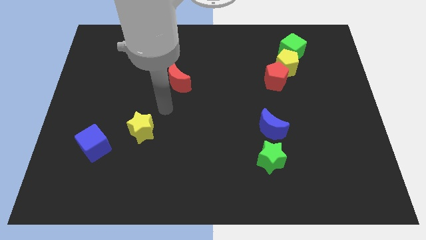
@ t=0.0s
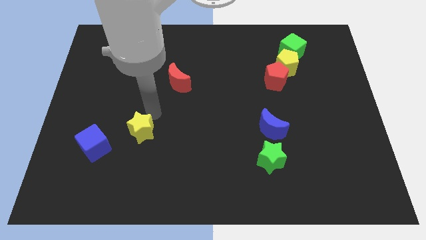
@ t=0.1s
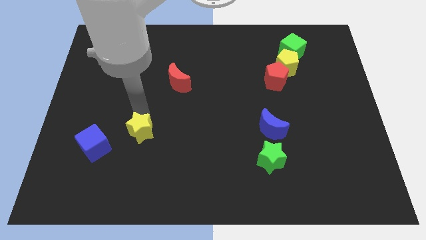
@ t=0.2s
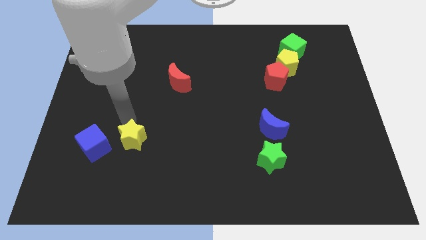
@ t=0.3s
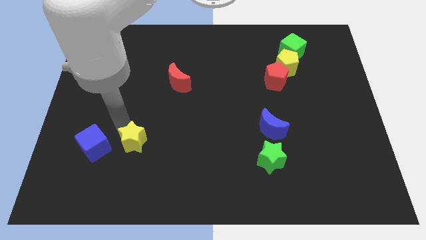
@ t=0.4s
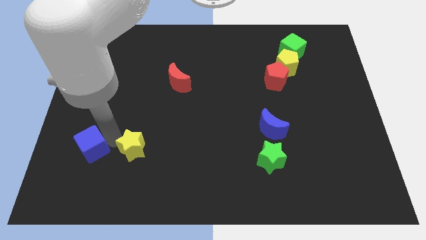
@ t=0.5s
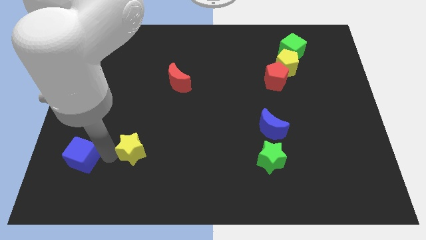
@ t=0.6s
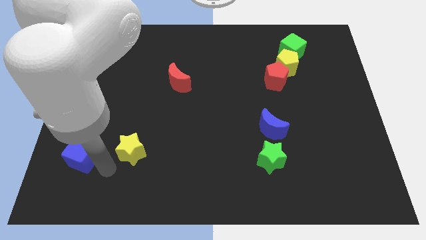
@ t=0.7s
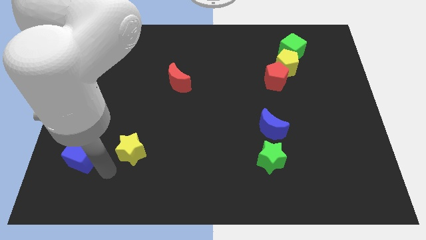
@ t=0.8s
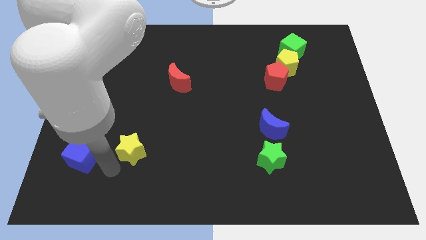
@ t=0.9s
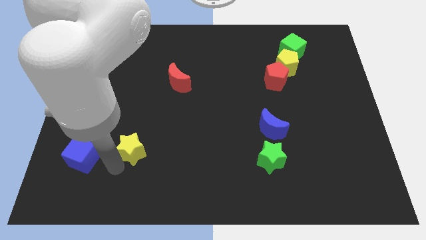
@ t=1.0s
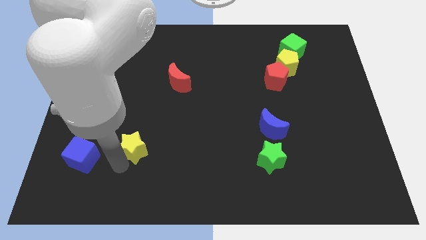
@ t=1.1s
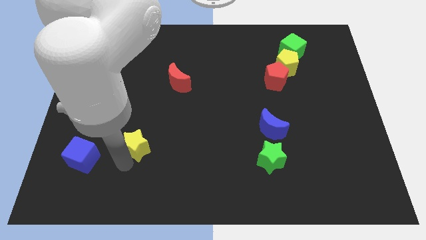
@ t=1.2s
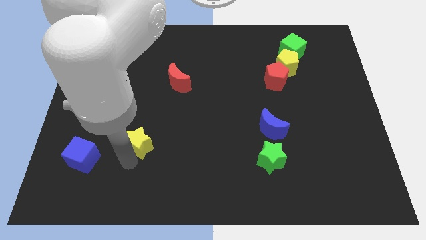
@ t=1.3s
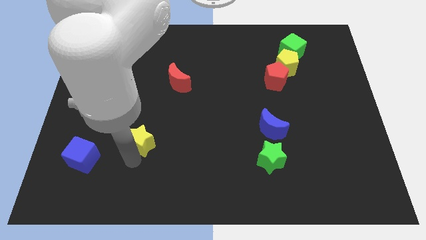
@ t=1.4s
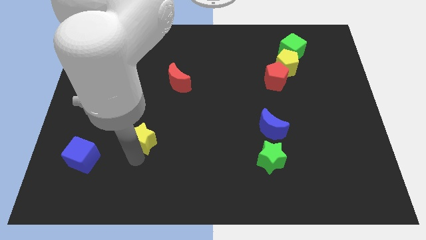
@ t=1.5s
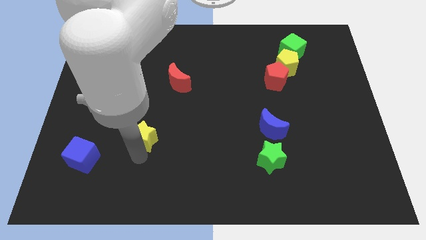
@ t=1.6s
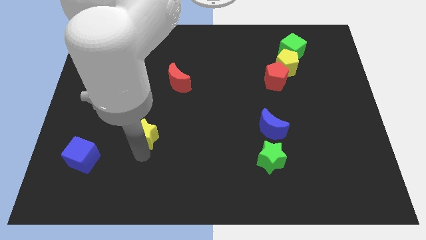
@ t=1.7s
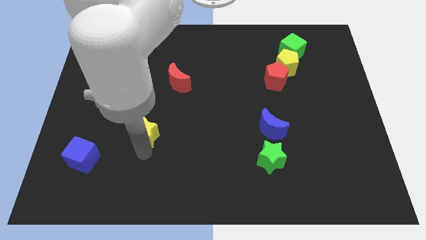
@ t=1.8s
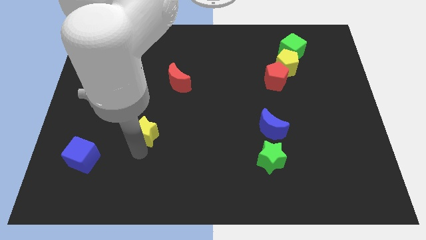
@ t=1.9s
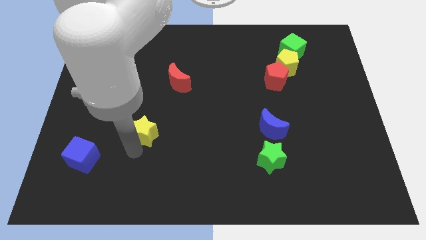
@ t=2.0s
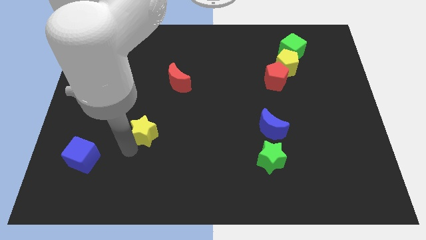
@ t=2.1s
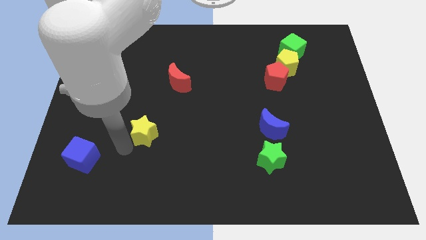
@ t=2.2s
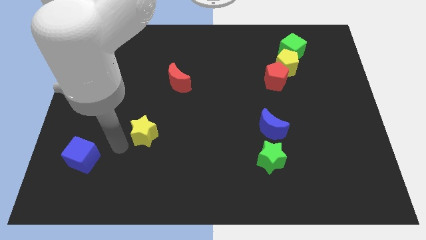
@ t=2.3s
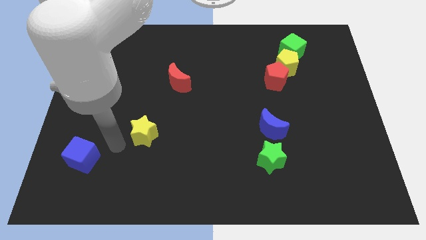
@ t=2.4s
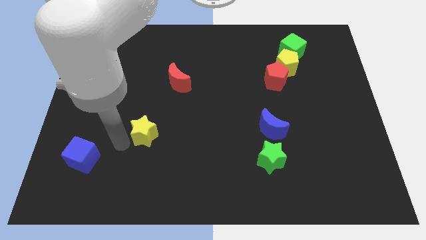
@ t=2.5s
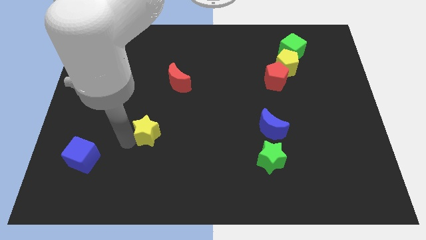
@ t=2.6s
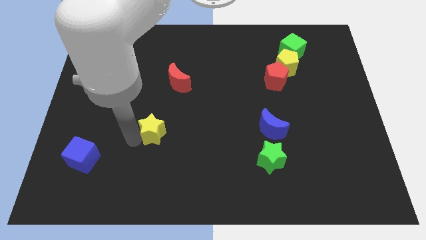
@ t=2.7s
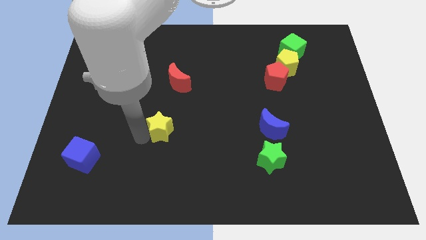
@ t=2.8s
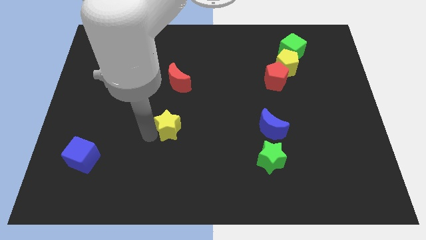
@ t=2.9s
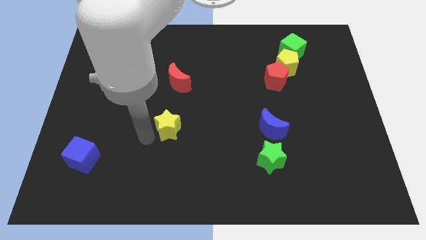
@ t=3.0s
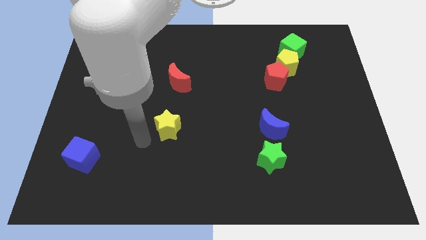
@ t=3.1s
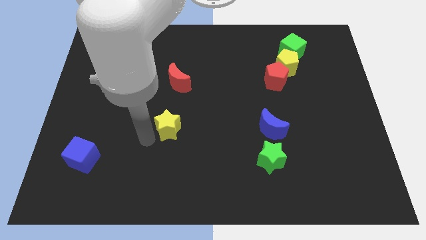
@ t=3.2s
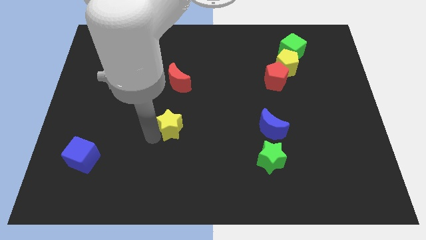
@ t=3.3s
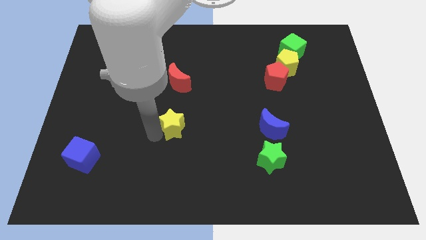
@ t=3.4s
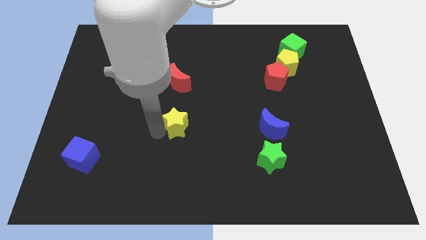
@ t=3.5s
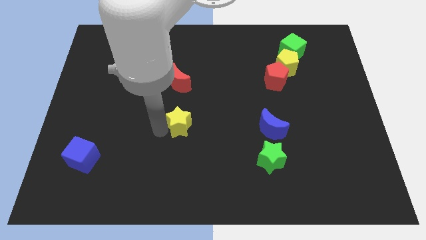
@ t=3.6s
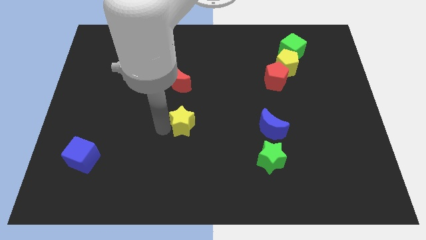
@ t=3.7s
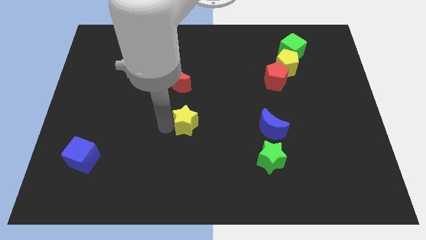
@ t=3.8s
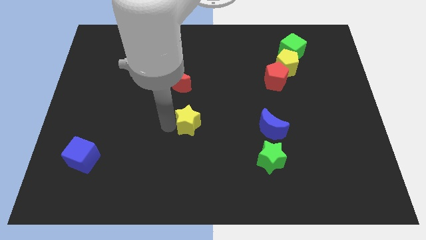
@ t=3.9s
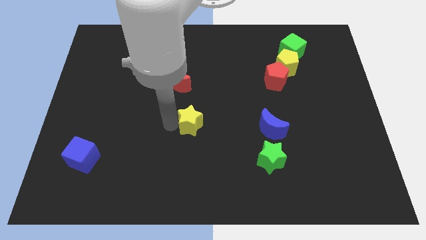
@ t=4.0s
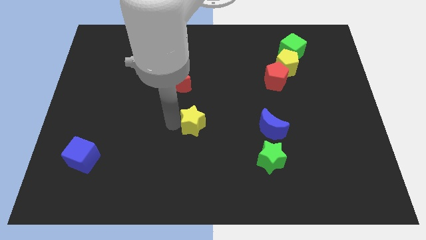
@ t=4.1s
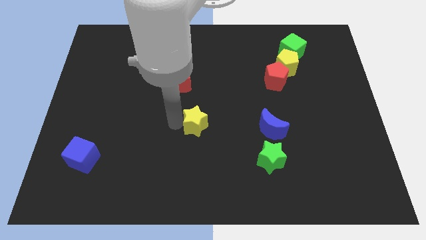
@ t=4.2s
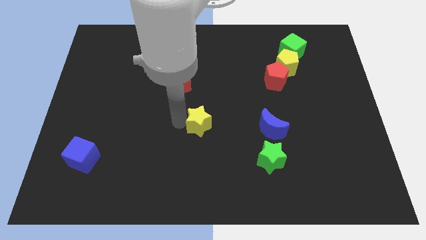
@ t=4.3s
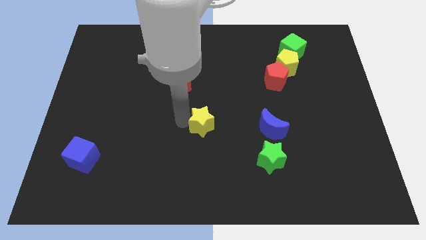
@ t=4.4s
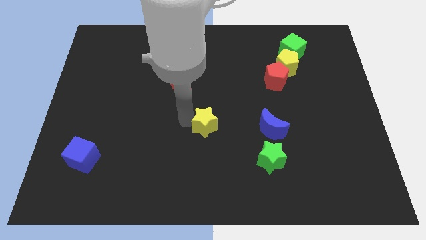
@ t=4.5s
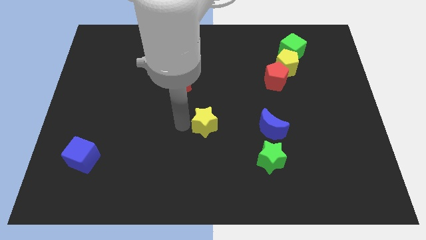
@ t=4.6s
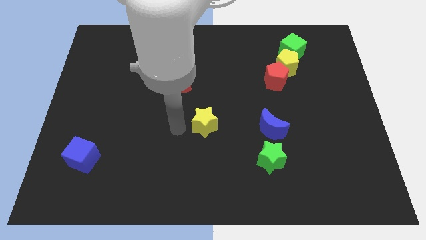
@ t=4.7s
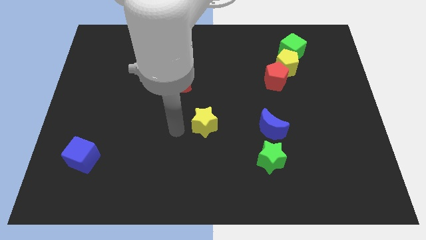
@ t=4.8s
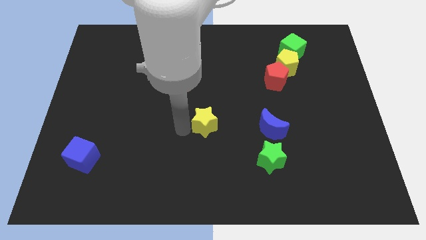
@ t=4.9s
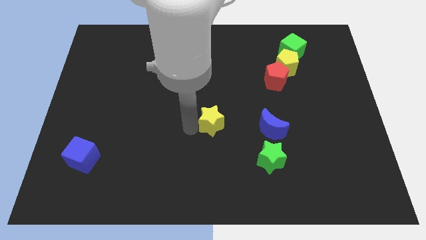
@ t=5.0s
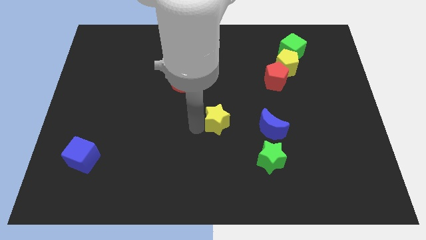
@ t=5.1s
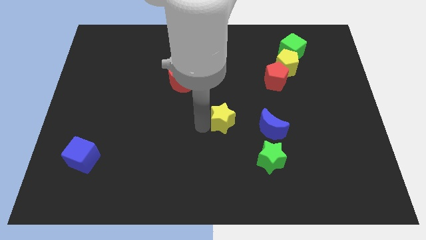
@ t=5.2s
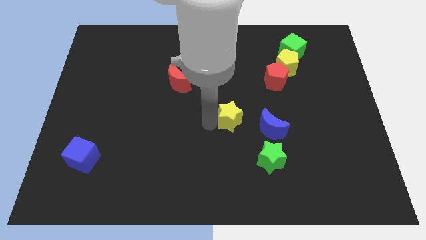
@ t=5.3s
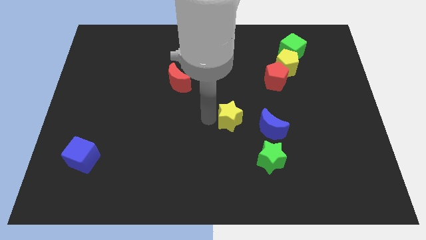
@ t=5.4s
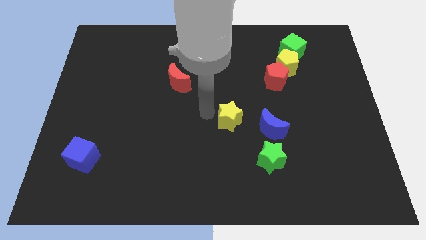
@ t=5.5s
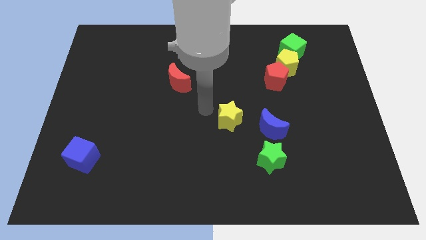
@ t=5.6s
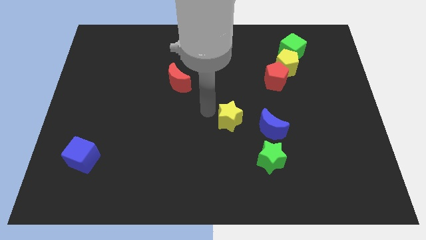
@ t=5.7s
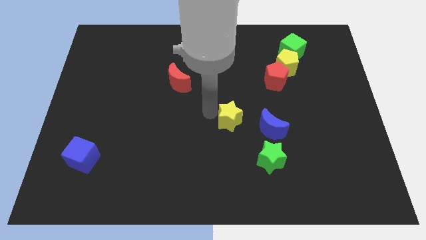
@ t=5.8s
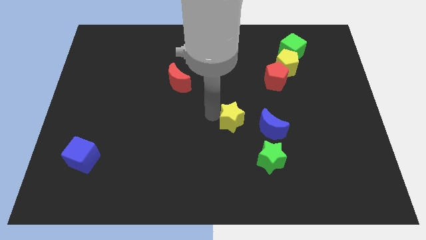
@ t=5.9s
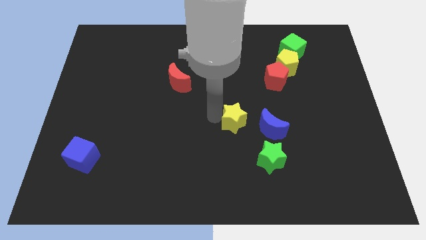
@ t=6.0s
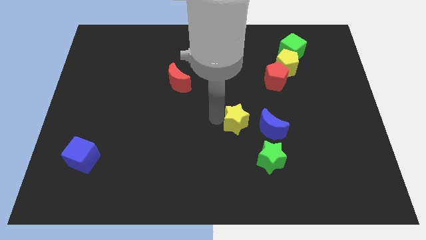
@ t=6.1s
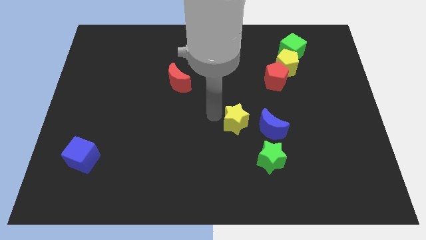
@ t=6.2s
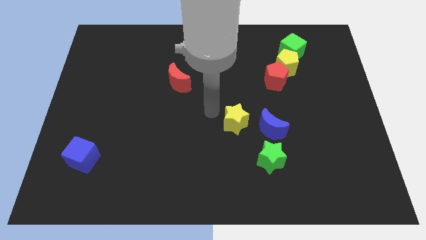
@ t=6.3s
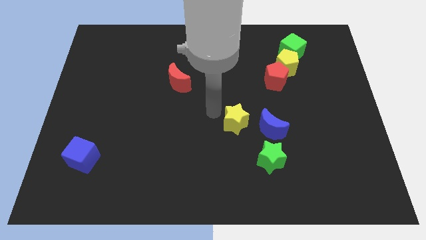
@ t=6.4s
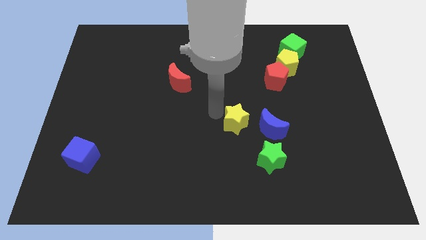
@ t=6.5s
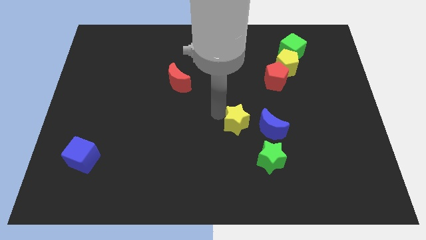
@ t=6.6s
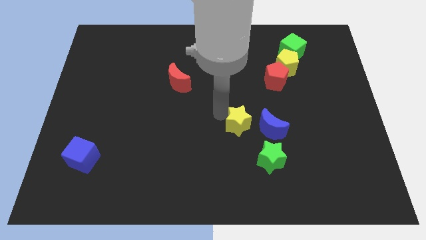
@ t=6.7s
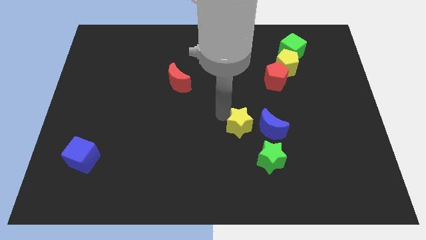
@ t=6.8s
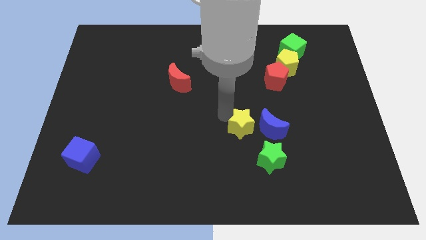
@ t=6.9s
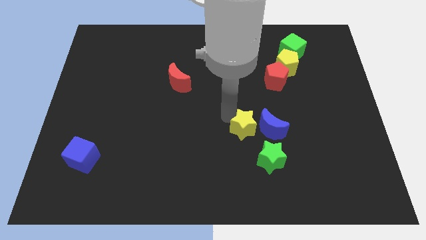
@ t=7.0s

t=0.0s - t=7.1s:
move the yellow star towards the blue moon

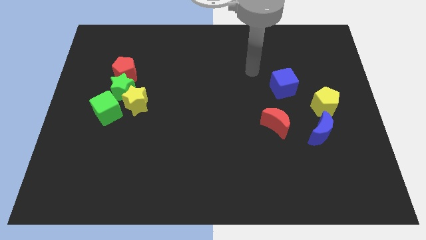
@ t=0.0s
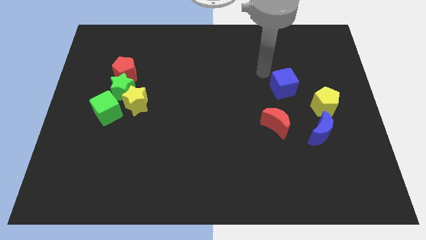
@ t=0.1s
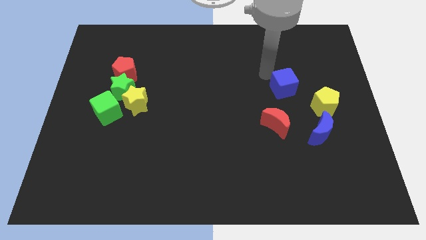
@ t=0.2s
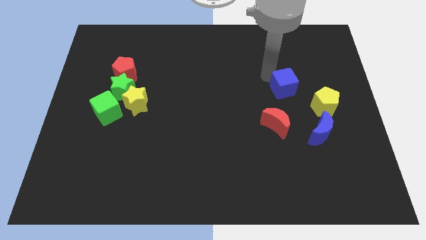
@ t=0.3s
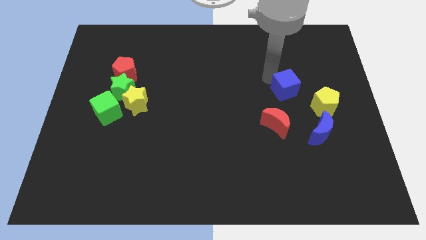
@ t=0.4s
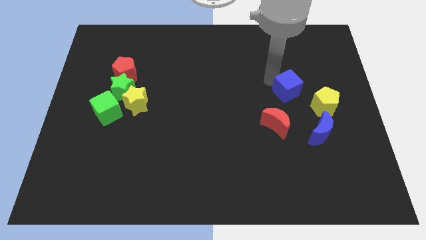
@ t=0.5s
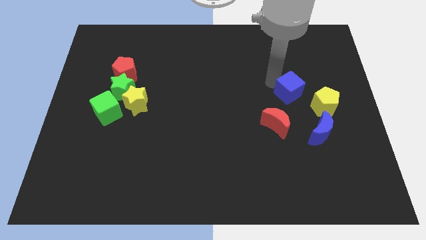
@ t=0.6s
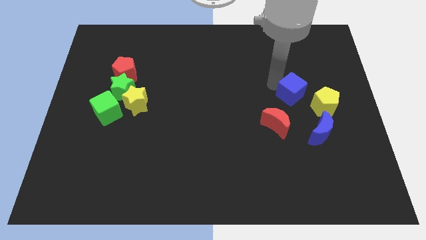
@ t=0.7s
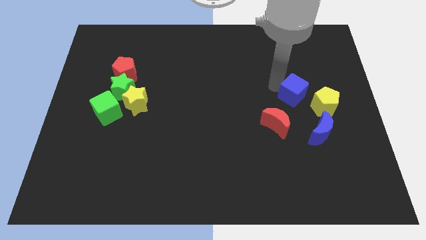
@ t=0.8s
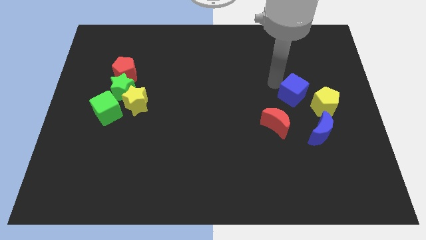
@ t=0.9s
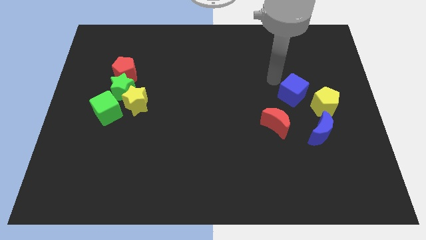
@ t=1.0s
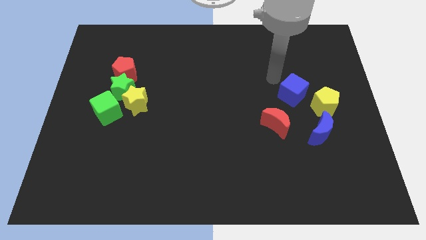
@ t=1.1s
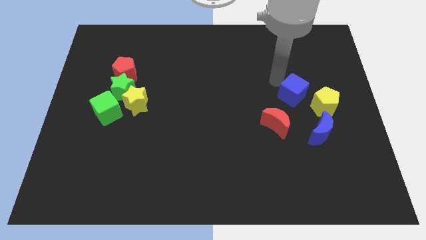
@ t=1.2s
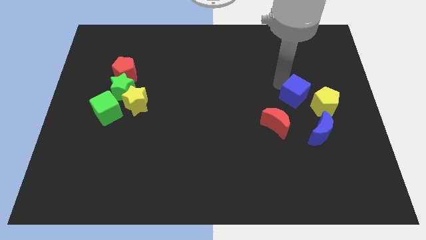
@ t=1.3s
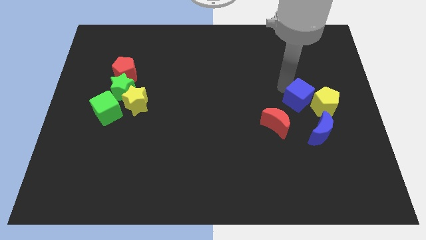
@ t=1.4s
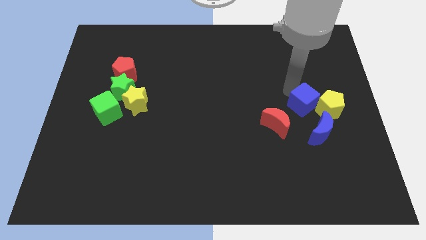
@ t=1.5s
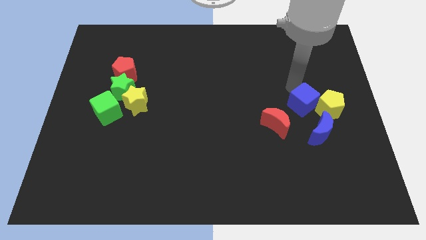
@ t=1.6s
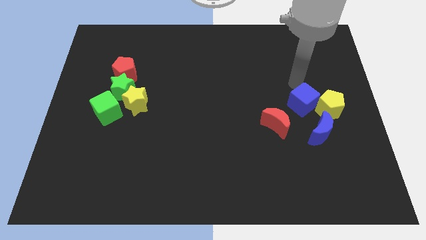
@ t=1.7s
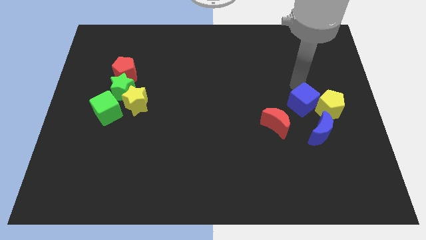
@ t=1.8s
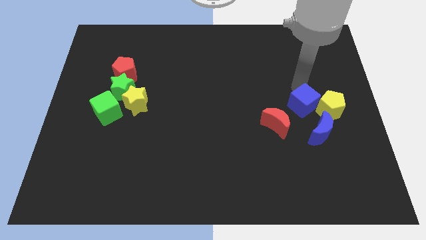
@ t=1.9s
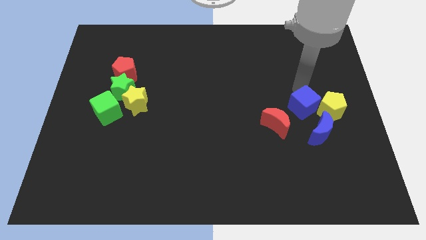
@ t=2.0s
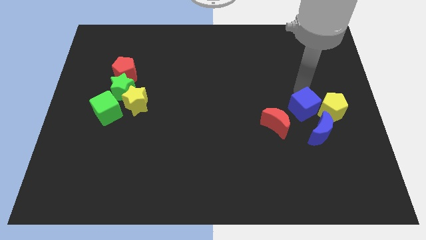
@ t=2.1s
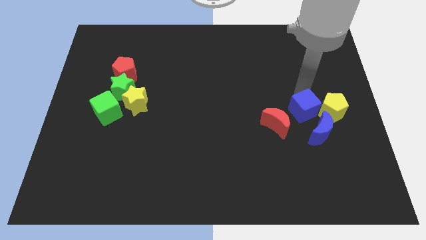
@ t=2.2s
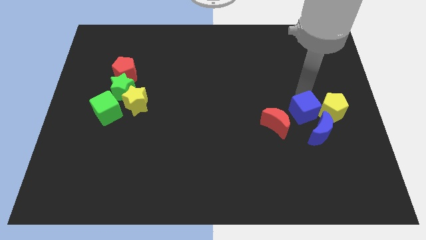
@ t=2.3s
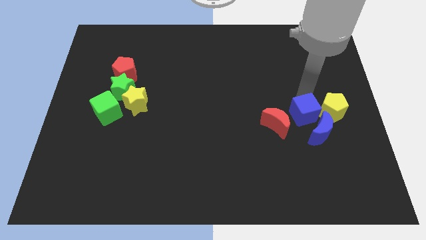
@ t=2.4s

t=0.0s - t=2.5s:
move the blue cube towards the blue moon
